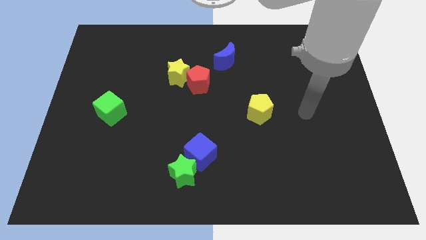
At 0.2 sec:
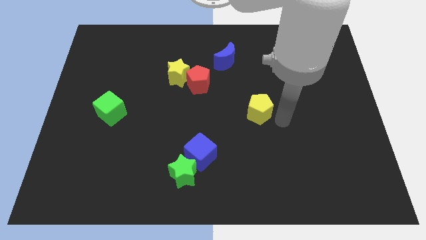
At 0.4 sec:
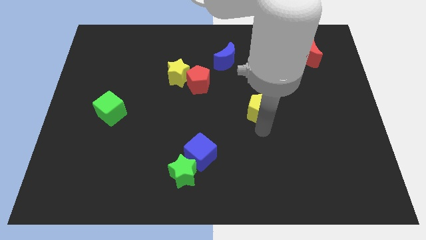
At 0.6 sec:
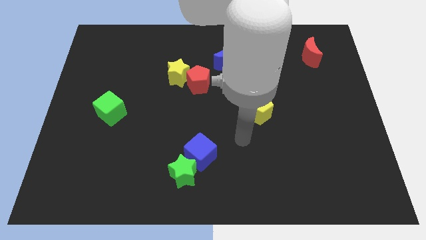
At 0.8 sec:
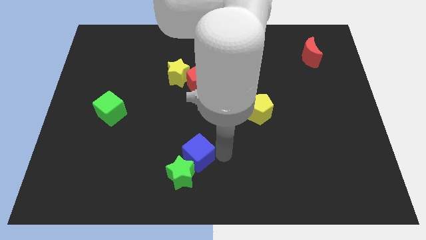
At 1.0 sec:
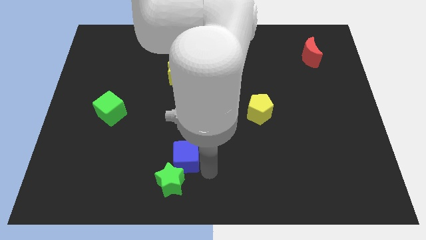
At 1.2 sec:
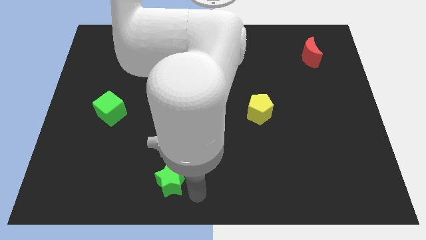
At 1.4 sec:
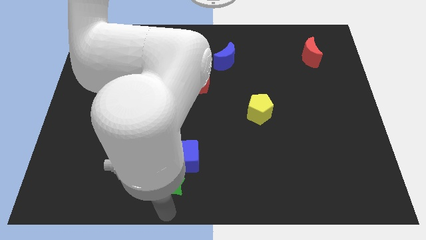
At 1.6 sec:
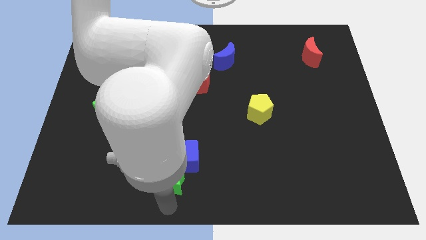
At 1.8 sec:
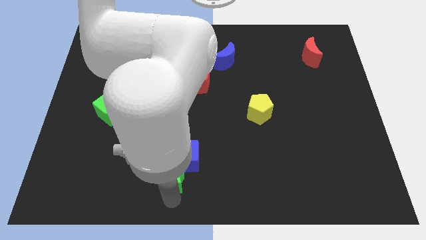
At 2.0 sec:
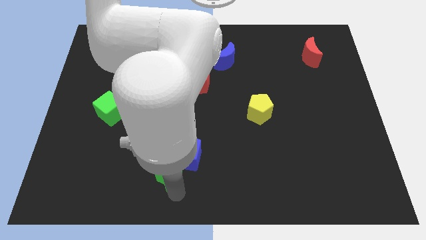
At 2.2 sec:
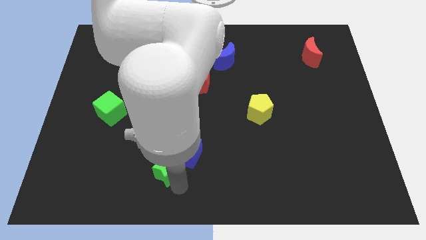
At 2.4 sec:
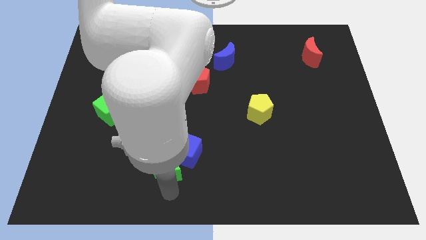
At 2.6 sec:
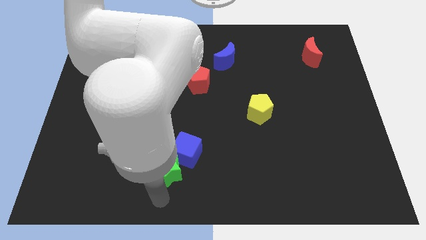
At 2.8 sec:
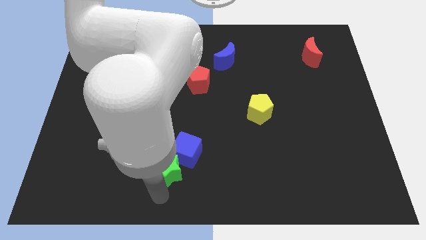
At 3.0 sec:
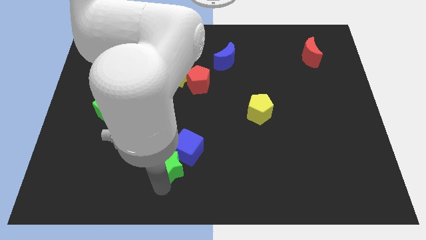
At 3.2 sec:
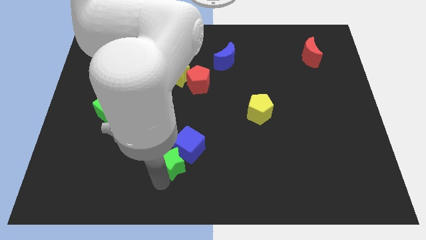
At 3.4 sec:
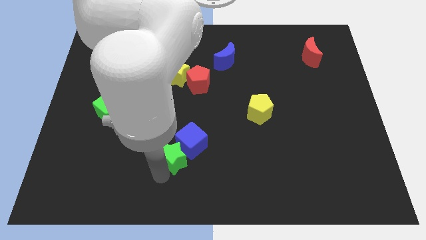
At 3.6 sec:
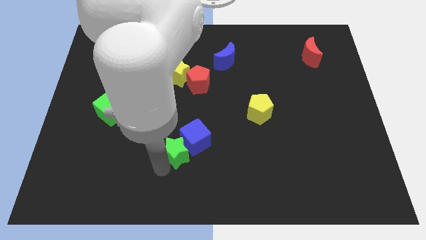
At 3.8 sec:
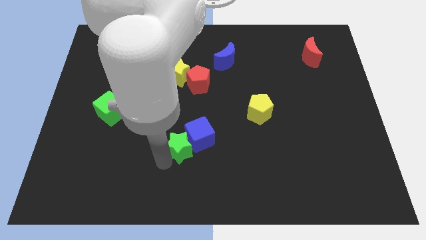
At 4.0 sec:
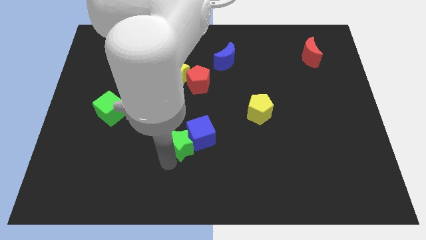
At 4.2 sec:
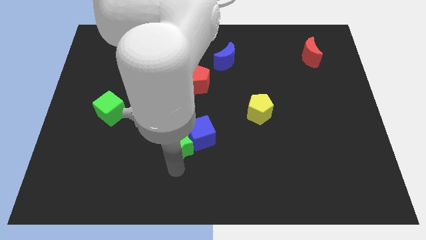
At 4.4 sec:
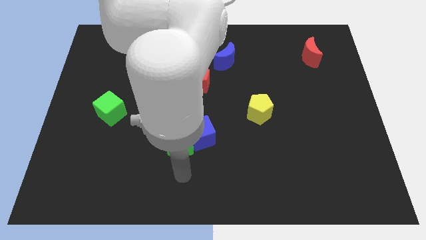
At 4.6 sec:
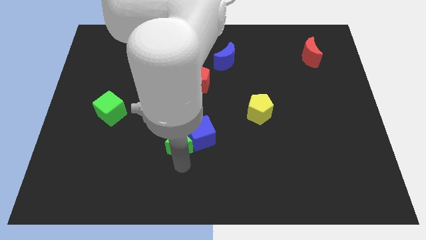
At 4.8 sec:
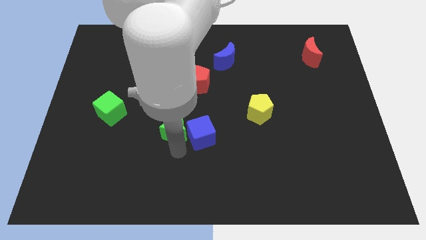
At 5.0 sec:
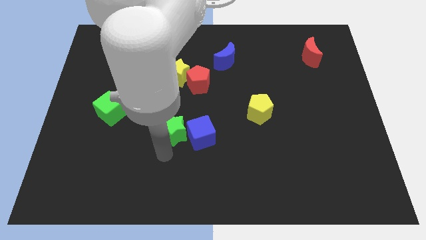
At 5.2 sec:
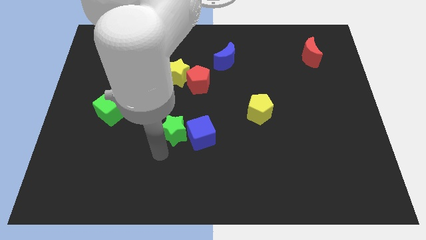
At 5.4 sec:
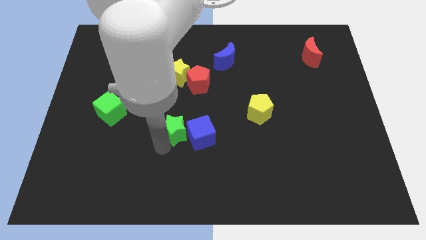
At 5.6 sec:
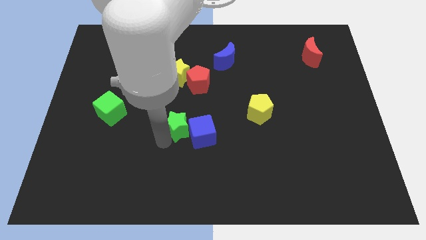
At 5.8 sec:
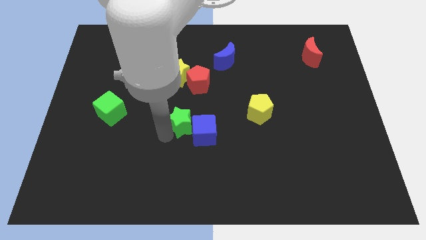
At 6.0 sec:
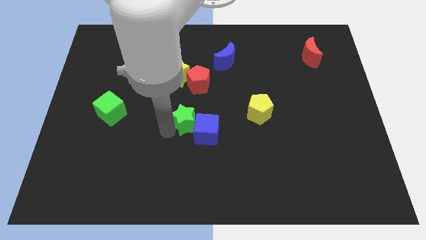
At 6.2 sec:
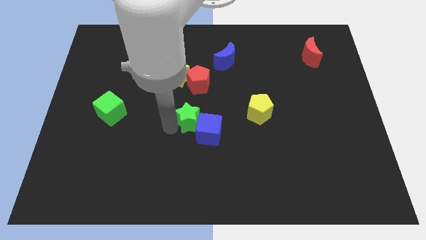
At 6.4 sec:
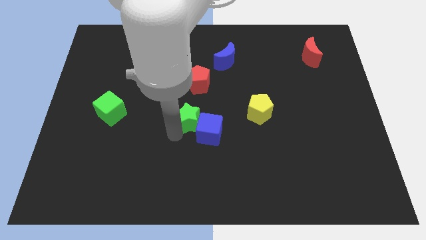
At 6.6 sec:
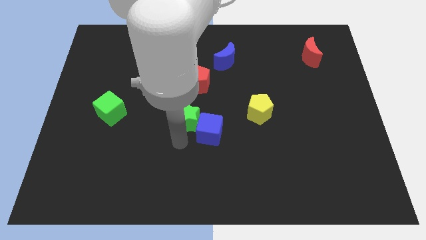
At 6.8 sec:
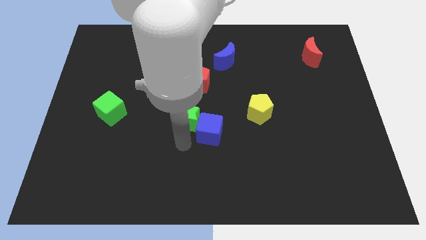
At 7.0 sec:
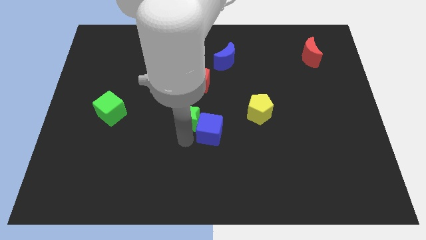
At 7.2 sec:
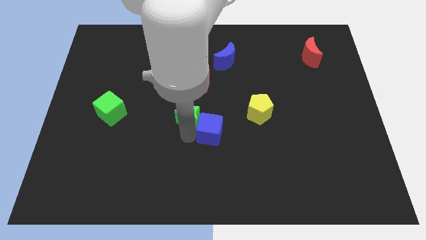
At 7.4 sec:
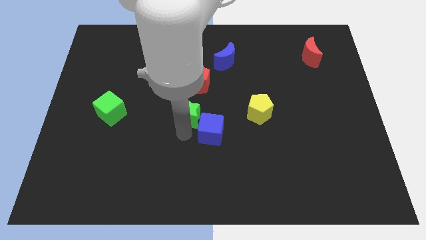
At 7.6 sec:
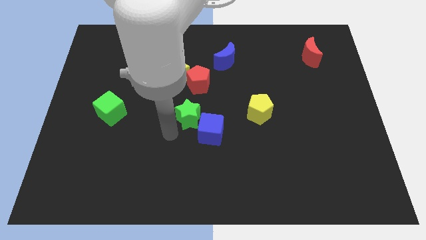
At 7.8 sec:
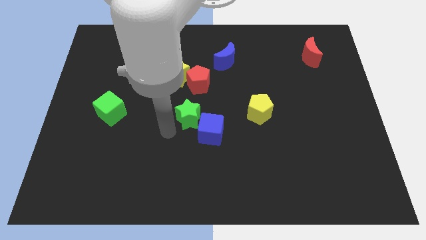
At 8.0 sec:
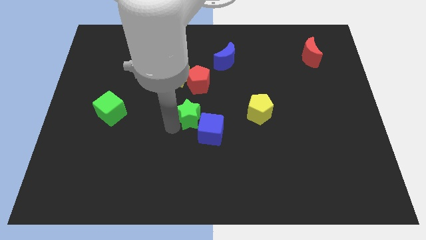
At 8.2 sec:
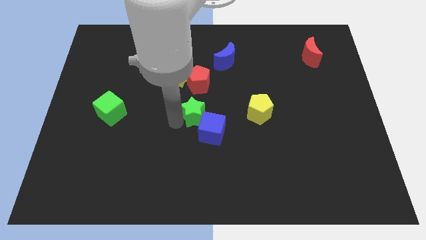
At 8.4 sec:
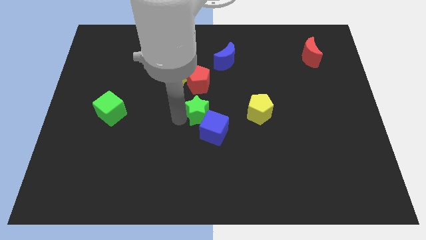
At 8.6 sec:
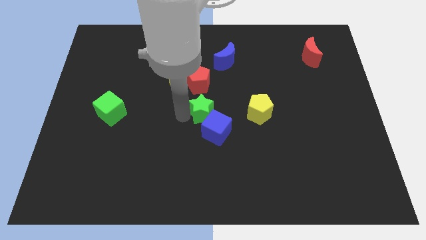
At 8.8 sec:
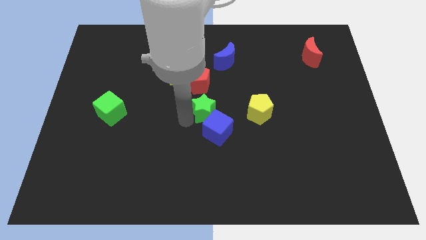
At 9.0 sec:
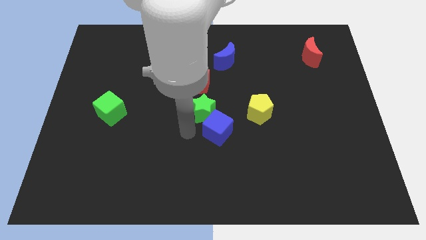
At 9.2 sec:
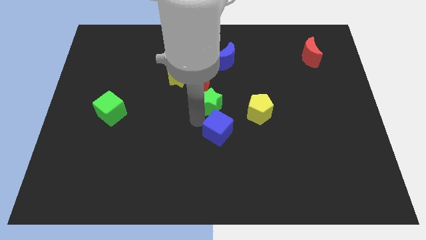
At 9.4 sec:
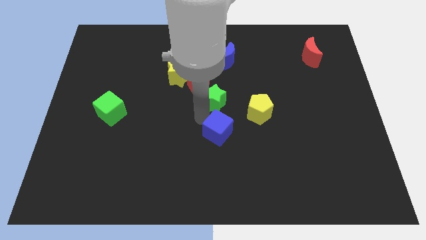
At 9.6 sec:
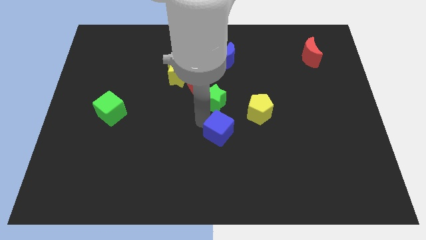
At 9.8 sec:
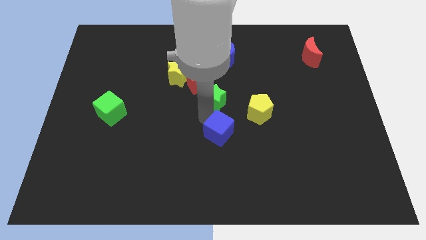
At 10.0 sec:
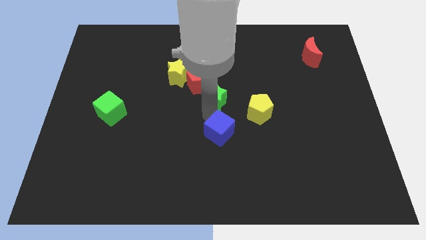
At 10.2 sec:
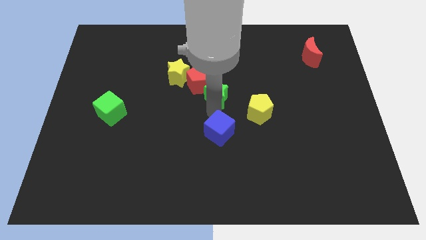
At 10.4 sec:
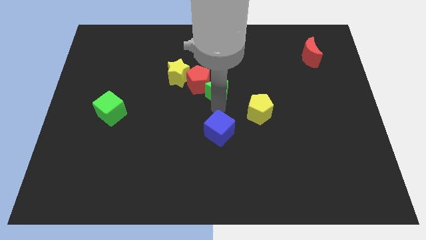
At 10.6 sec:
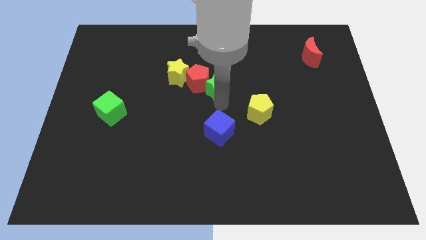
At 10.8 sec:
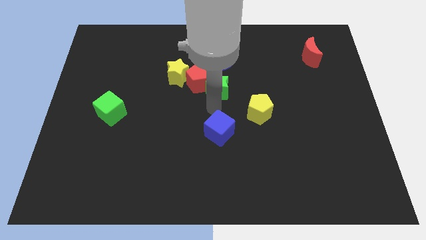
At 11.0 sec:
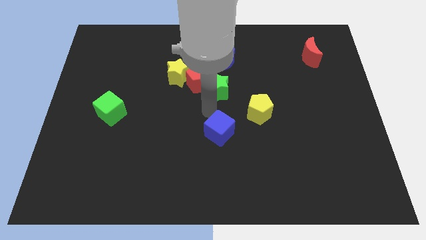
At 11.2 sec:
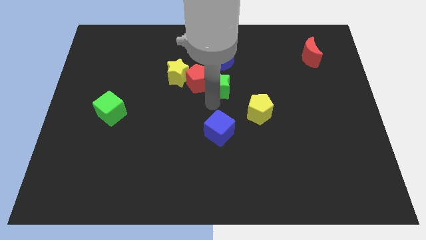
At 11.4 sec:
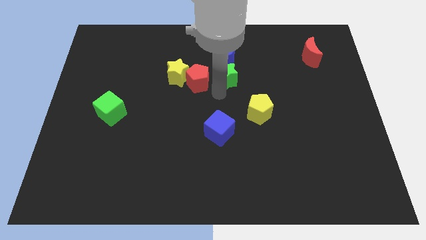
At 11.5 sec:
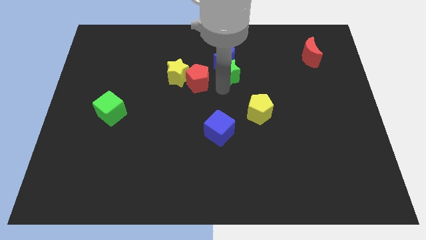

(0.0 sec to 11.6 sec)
push the green star close to the blue moon

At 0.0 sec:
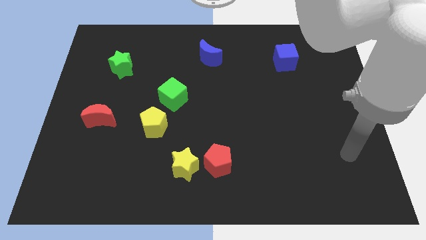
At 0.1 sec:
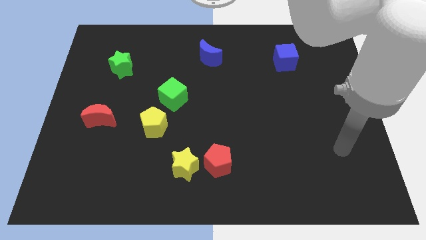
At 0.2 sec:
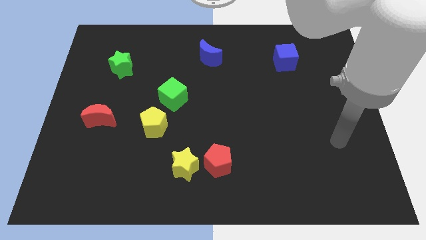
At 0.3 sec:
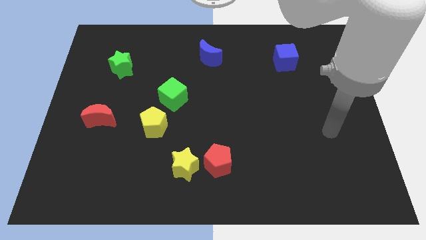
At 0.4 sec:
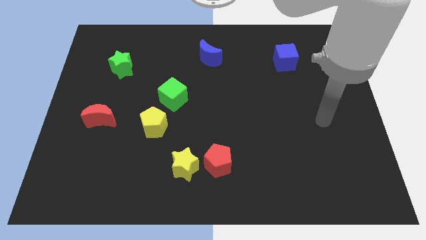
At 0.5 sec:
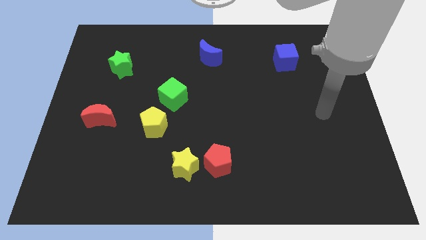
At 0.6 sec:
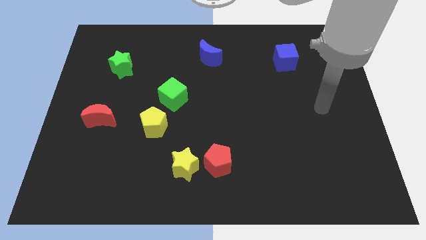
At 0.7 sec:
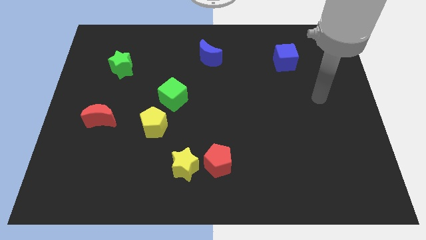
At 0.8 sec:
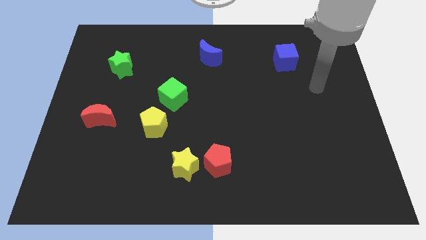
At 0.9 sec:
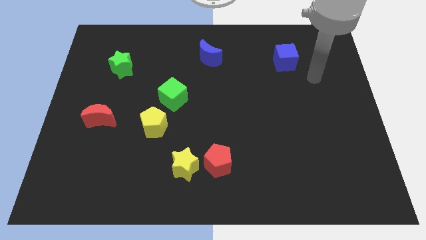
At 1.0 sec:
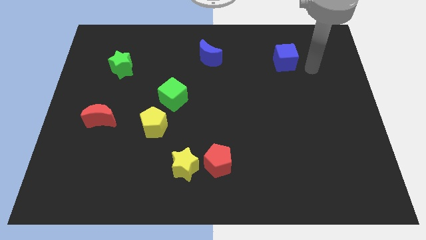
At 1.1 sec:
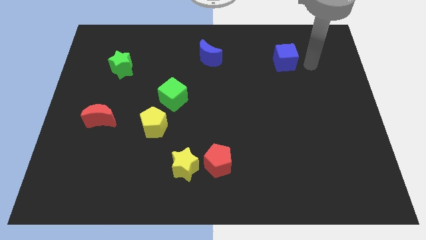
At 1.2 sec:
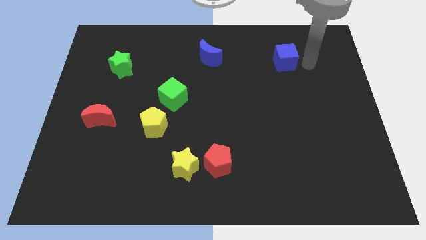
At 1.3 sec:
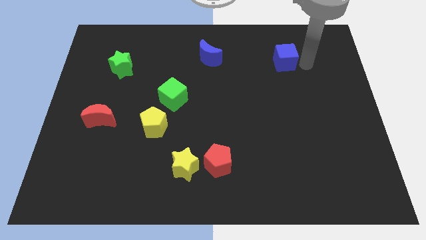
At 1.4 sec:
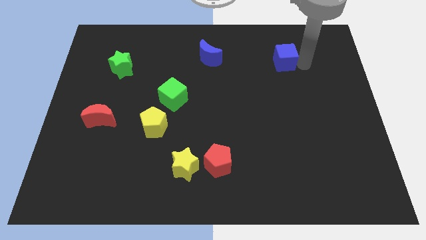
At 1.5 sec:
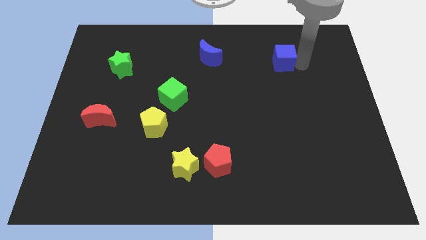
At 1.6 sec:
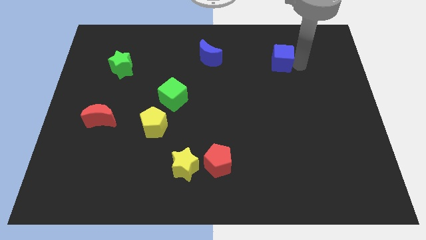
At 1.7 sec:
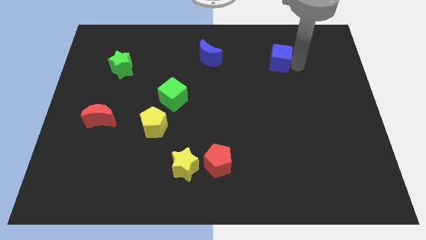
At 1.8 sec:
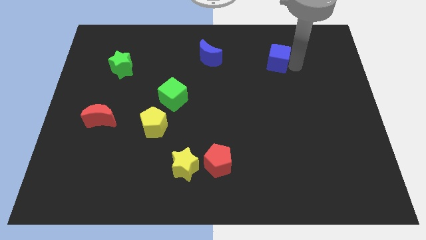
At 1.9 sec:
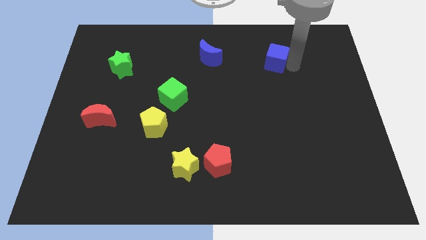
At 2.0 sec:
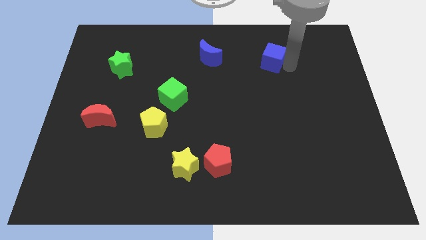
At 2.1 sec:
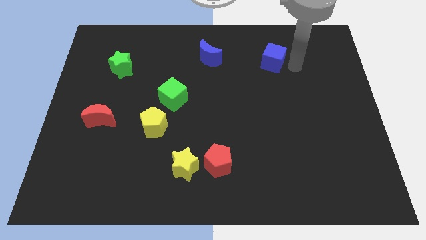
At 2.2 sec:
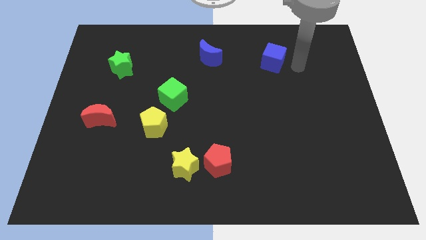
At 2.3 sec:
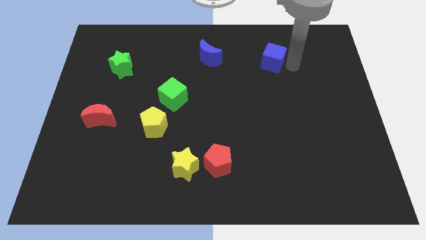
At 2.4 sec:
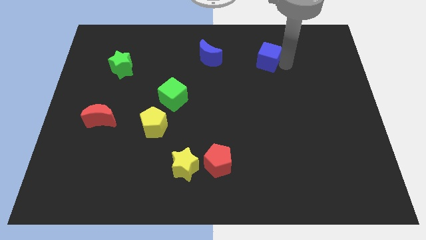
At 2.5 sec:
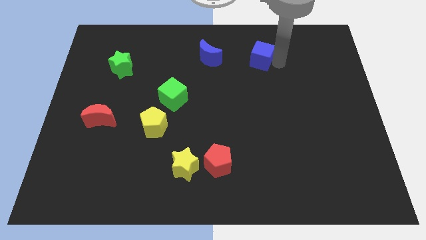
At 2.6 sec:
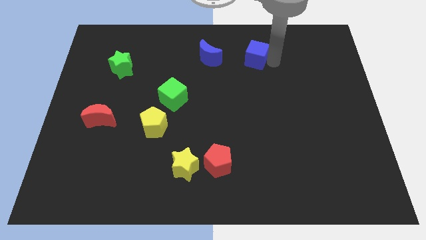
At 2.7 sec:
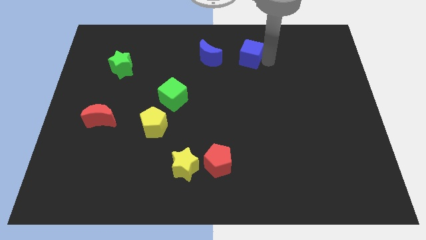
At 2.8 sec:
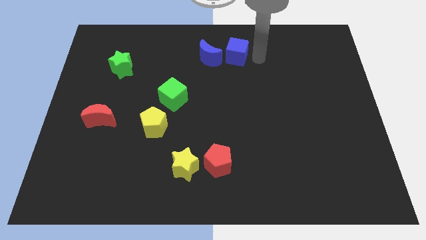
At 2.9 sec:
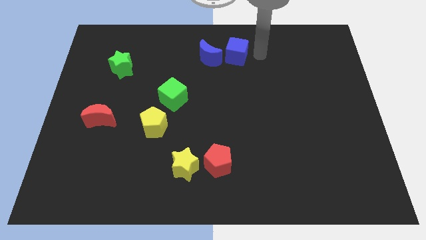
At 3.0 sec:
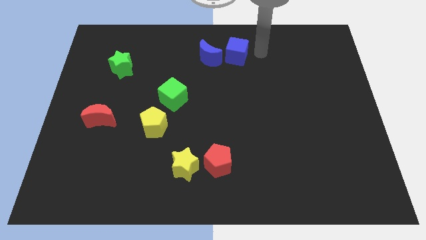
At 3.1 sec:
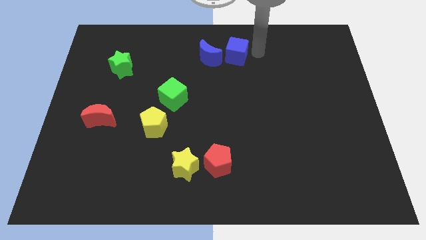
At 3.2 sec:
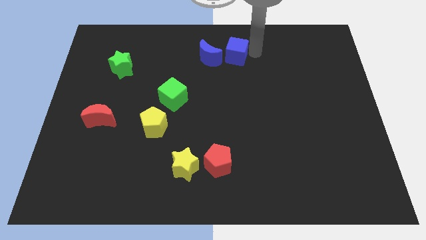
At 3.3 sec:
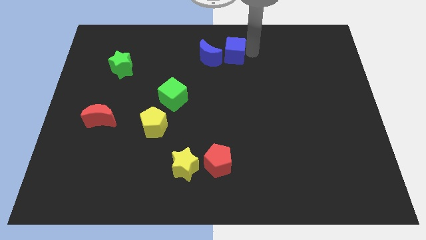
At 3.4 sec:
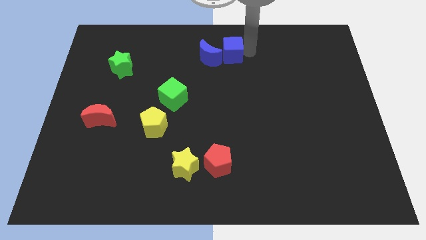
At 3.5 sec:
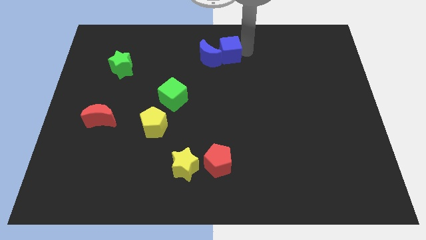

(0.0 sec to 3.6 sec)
slide the blue cube to the blue moon
